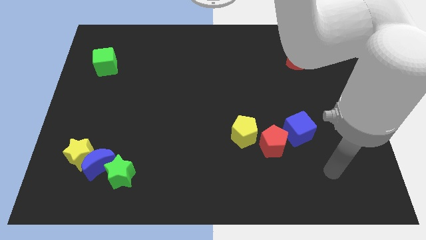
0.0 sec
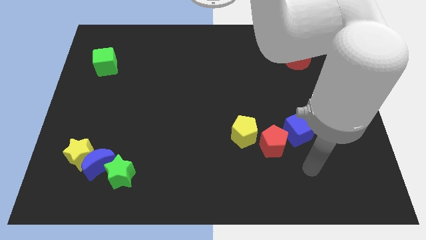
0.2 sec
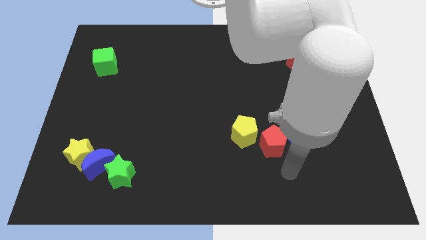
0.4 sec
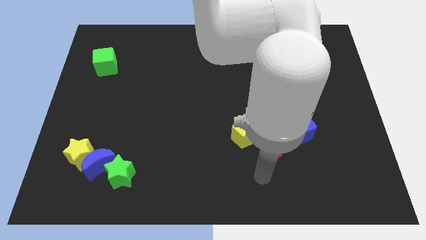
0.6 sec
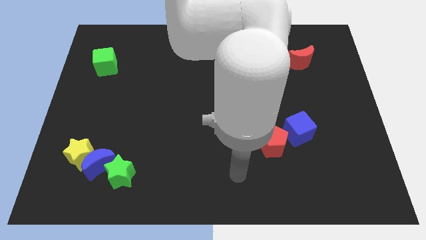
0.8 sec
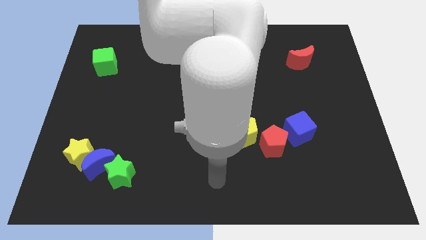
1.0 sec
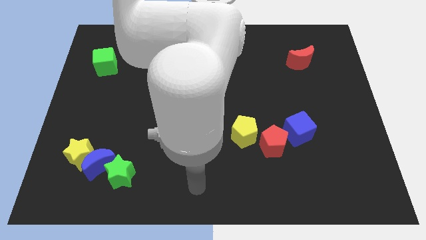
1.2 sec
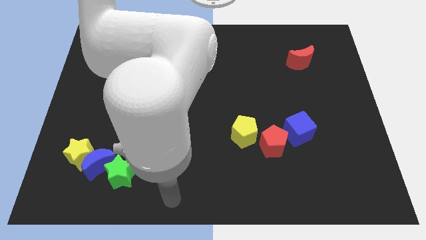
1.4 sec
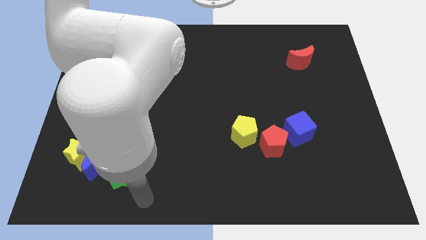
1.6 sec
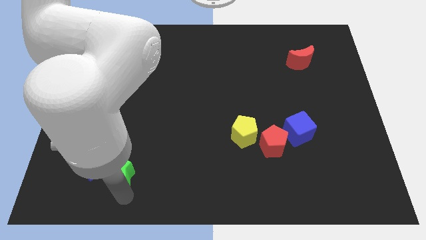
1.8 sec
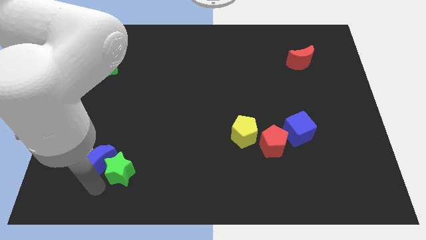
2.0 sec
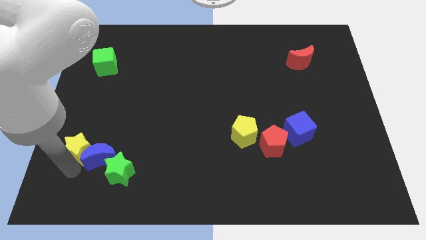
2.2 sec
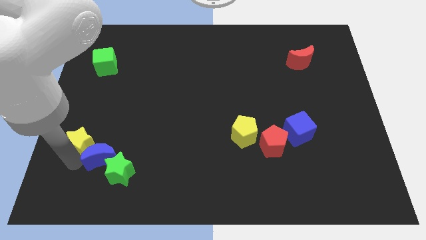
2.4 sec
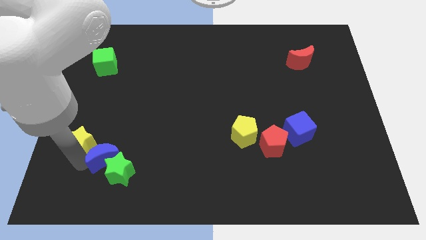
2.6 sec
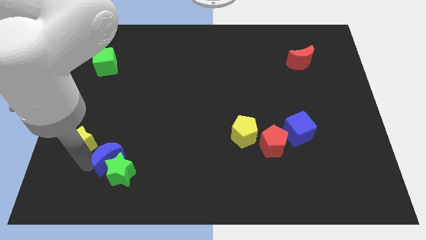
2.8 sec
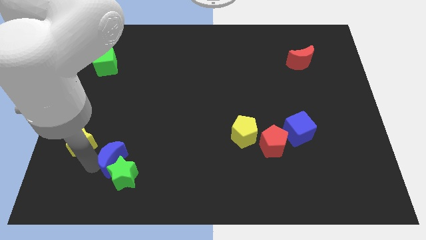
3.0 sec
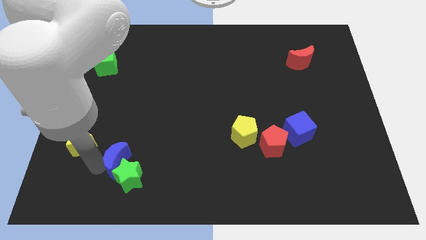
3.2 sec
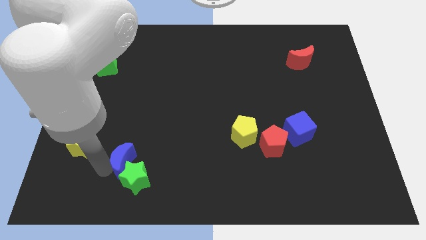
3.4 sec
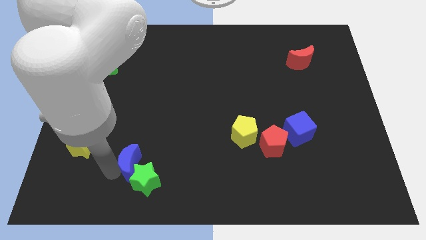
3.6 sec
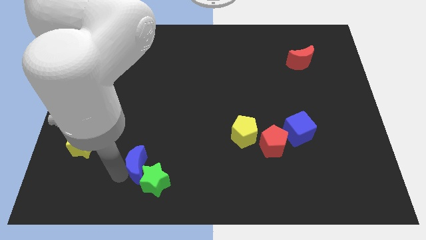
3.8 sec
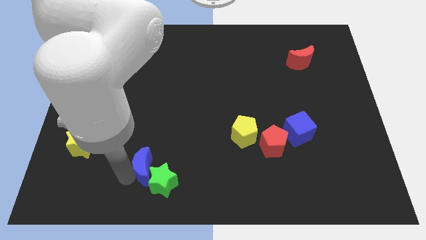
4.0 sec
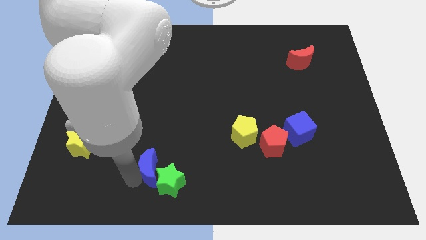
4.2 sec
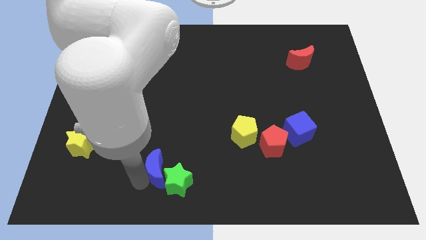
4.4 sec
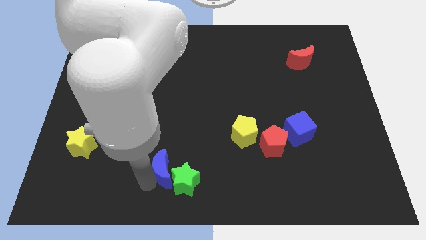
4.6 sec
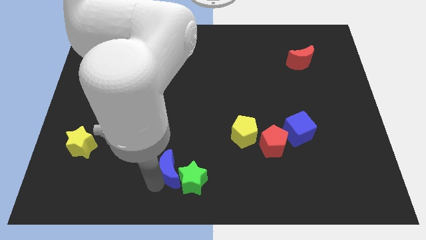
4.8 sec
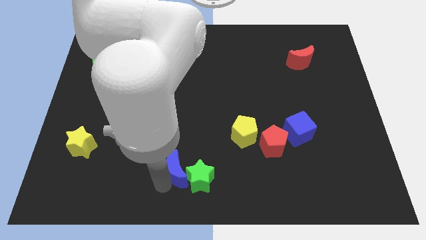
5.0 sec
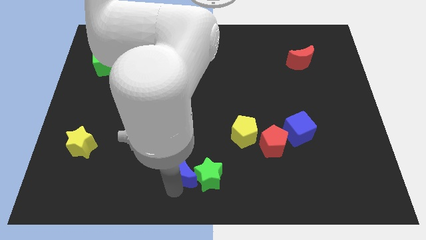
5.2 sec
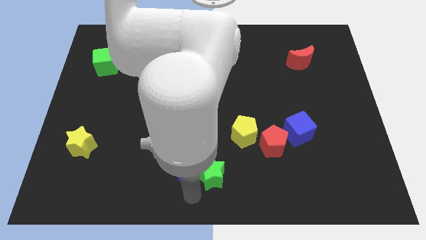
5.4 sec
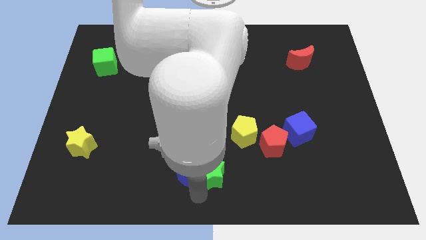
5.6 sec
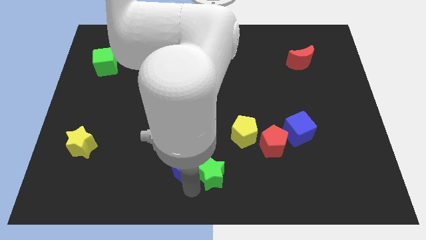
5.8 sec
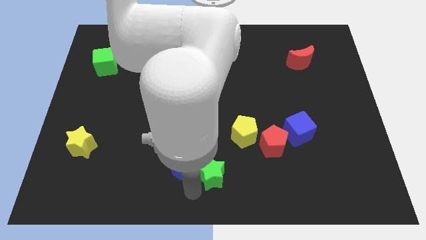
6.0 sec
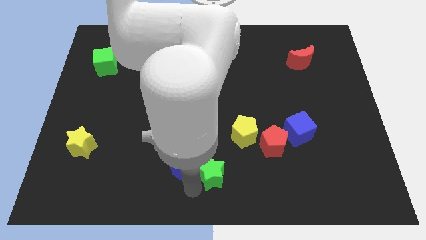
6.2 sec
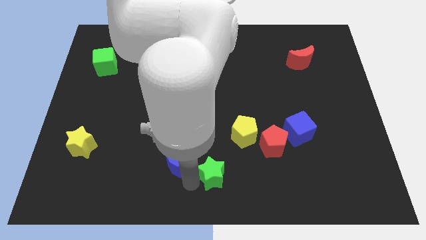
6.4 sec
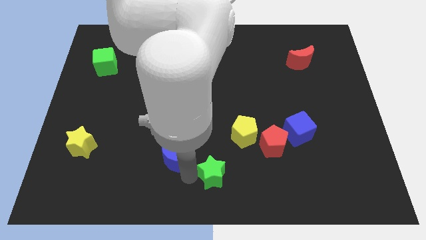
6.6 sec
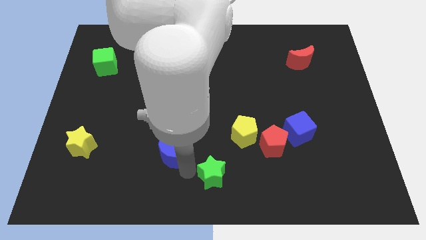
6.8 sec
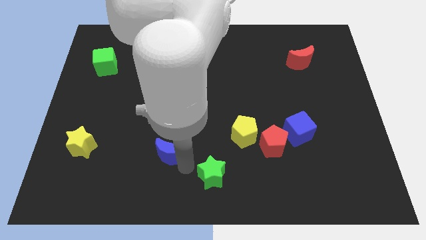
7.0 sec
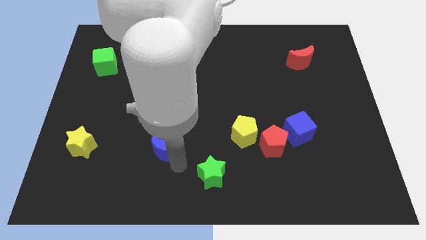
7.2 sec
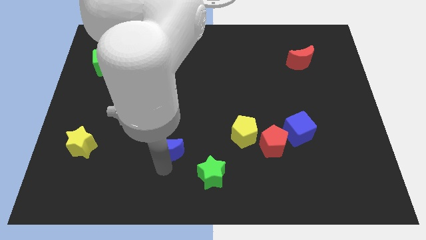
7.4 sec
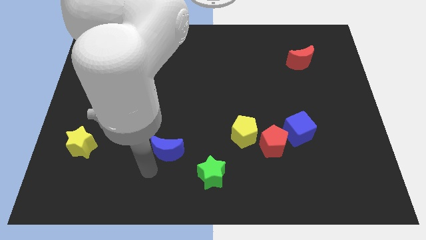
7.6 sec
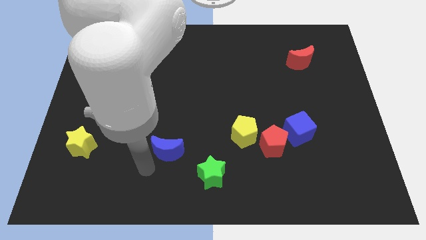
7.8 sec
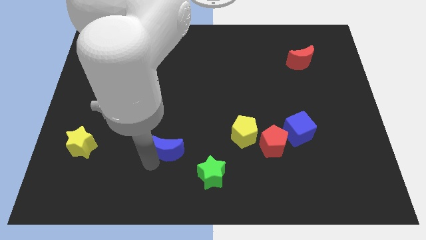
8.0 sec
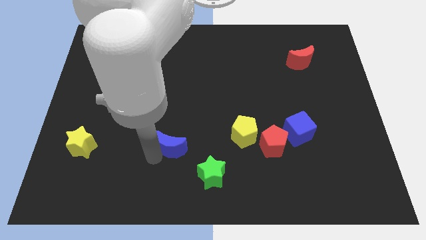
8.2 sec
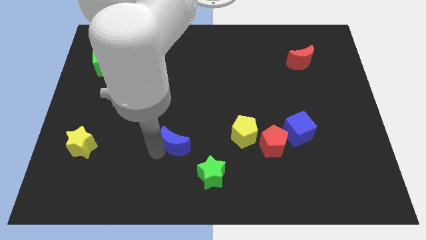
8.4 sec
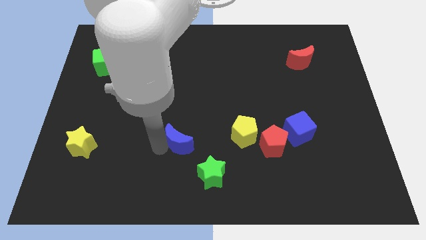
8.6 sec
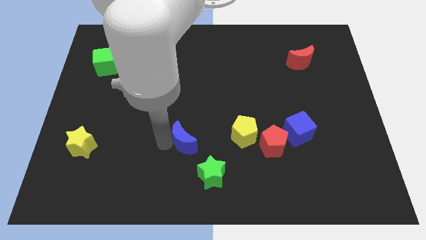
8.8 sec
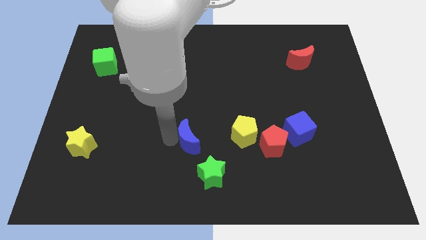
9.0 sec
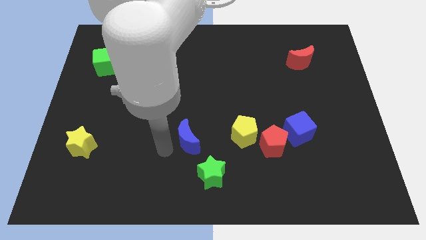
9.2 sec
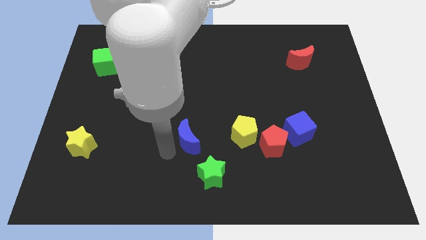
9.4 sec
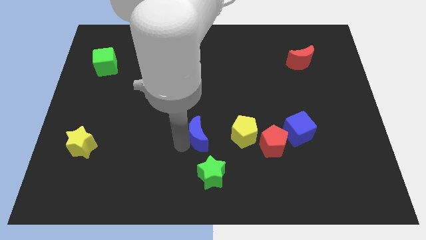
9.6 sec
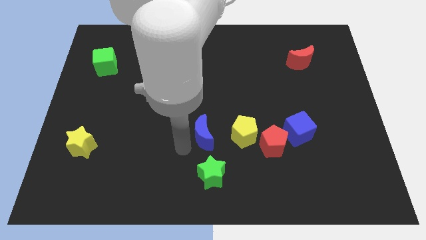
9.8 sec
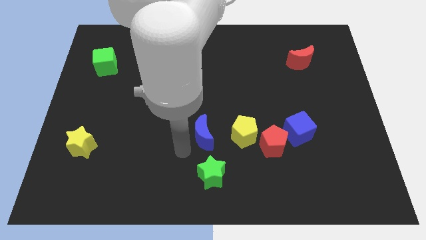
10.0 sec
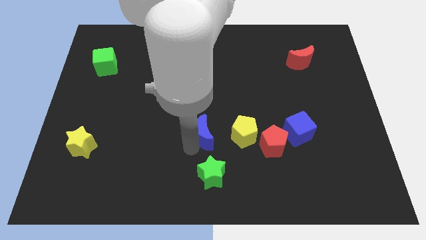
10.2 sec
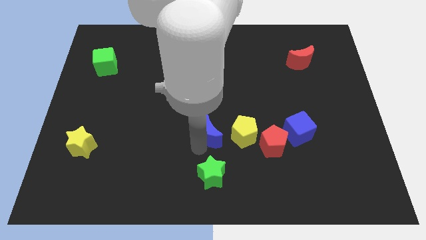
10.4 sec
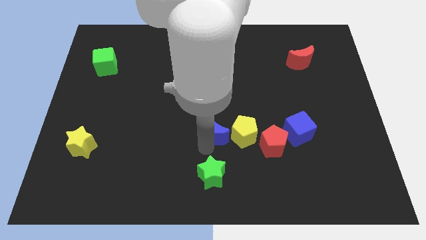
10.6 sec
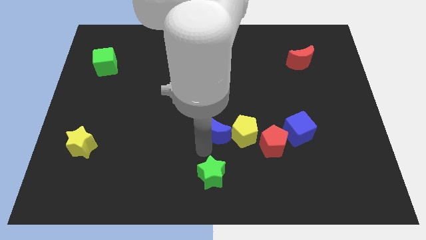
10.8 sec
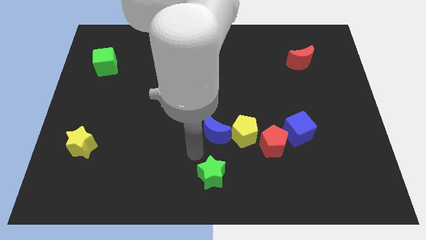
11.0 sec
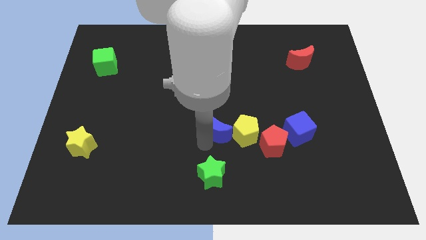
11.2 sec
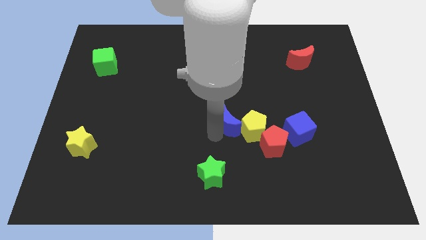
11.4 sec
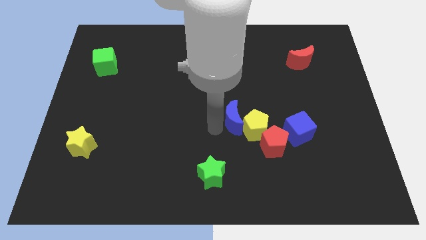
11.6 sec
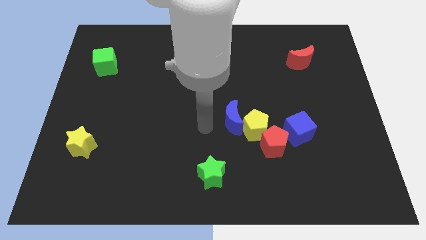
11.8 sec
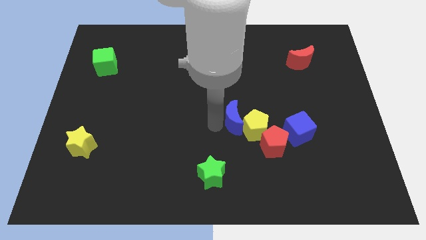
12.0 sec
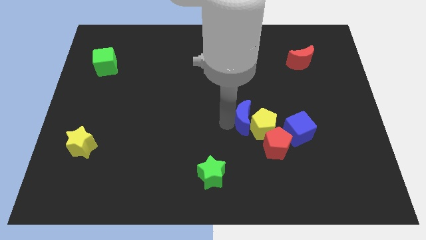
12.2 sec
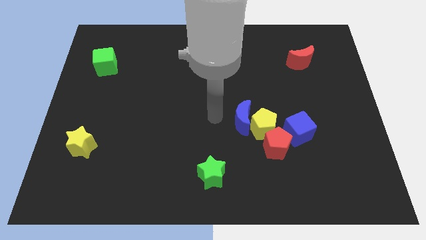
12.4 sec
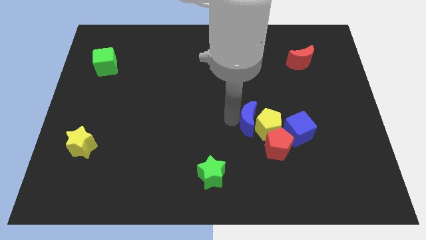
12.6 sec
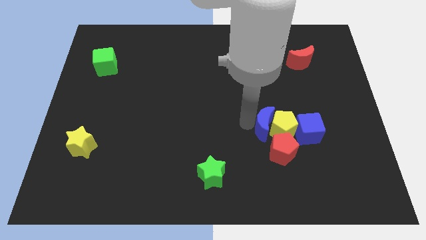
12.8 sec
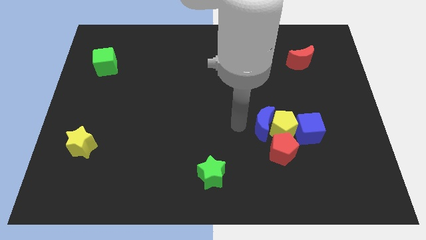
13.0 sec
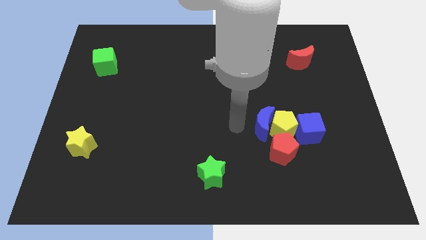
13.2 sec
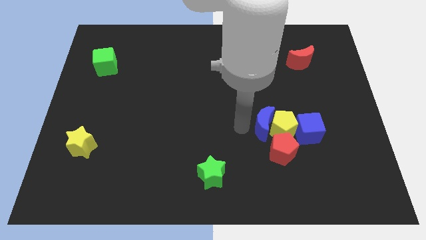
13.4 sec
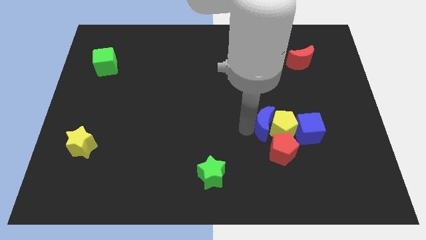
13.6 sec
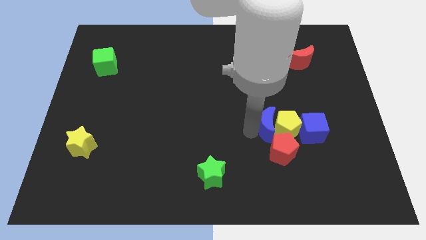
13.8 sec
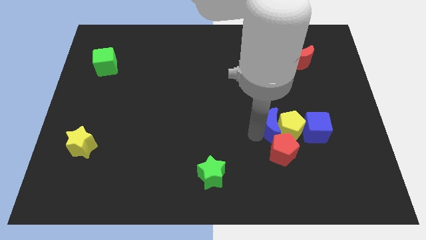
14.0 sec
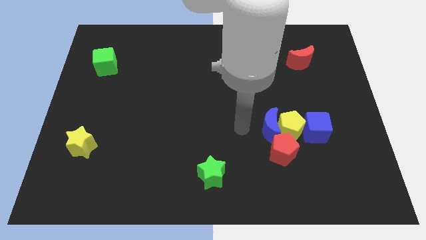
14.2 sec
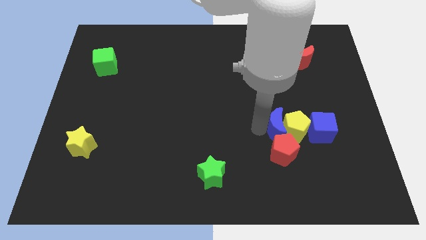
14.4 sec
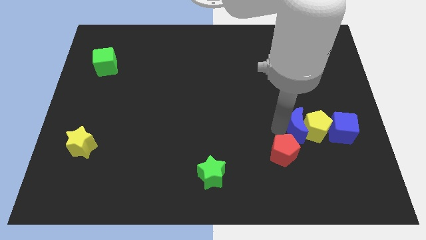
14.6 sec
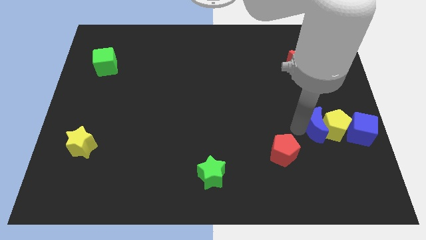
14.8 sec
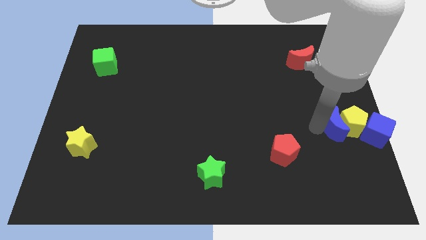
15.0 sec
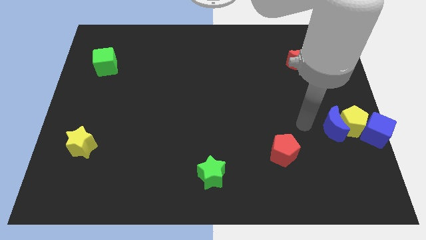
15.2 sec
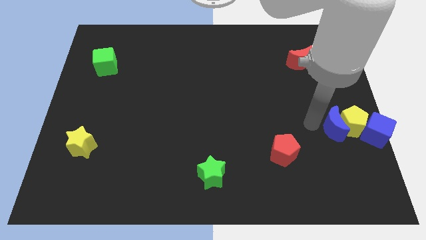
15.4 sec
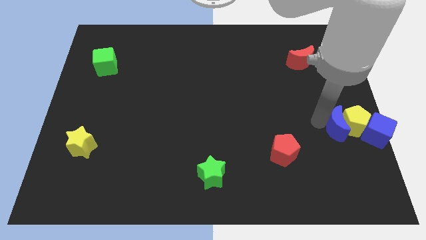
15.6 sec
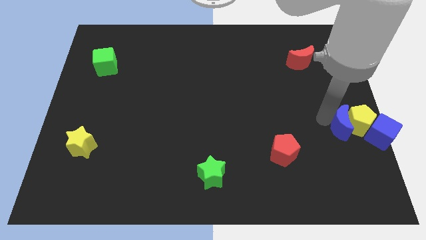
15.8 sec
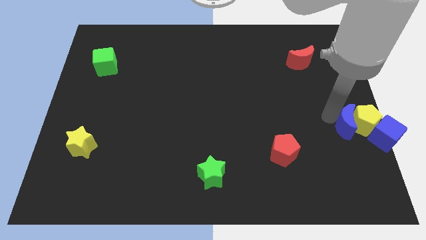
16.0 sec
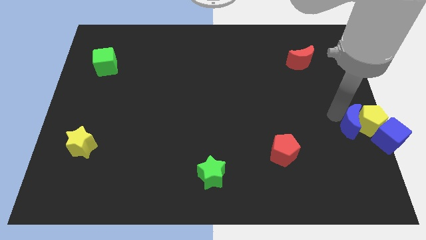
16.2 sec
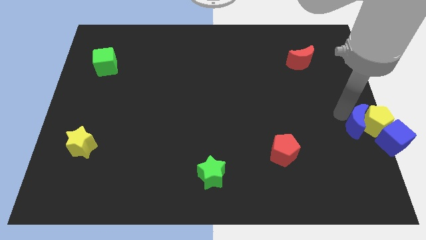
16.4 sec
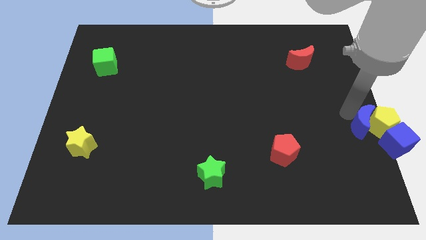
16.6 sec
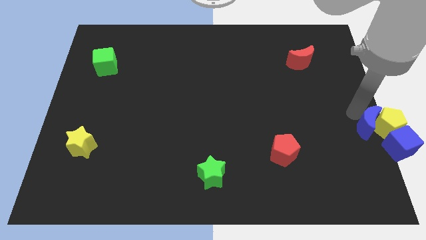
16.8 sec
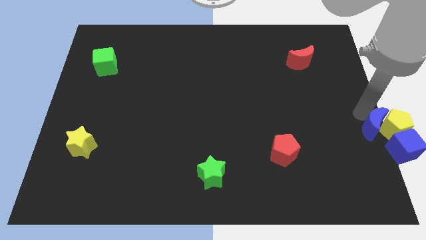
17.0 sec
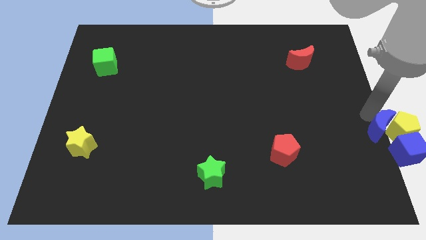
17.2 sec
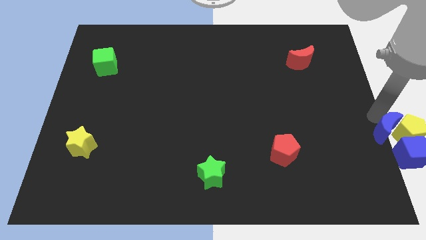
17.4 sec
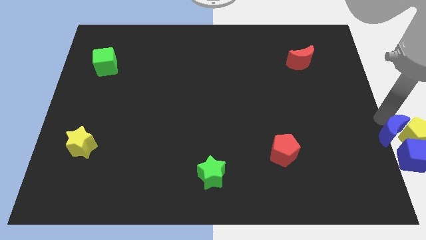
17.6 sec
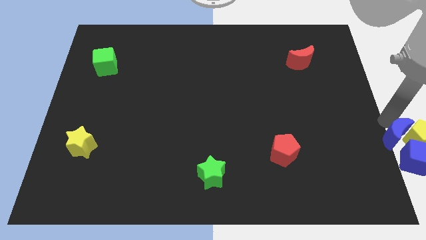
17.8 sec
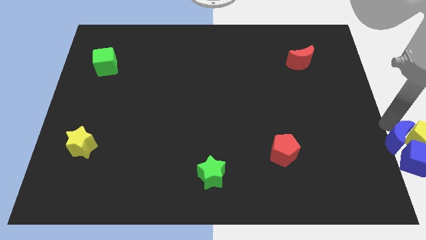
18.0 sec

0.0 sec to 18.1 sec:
put the blue moon to the blue cube
